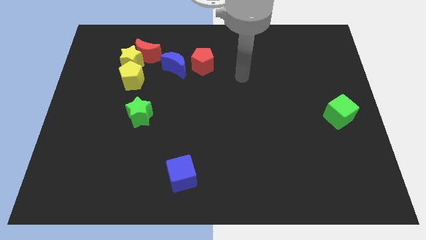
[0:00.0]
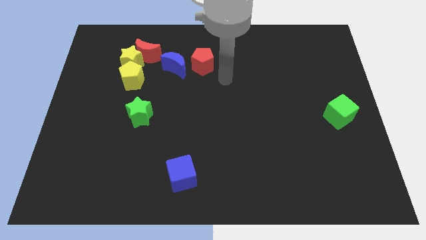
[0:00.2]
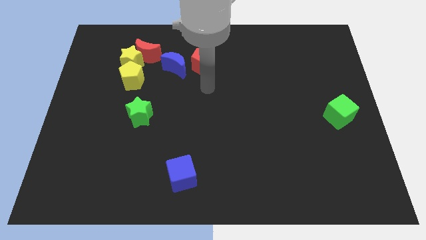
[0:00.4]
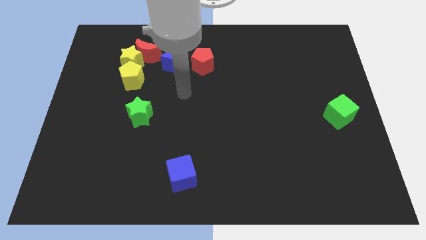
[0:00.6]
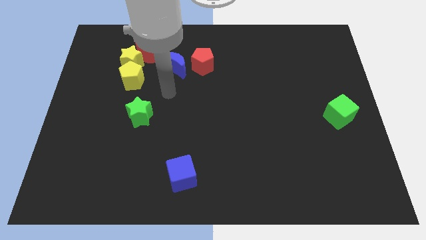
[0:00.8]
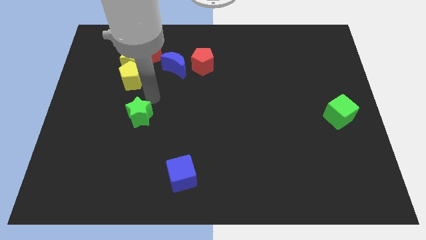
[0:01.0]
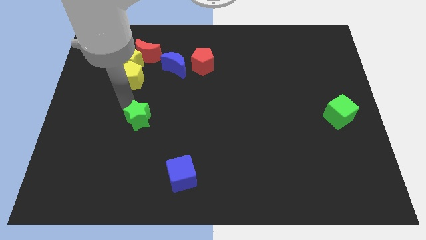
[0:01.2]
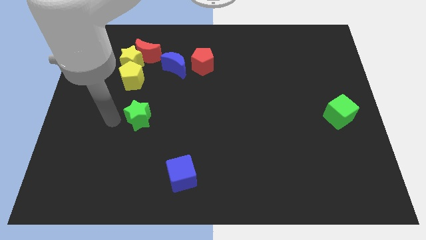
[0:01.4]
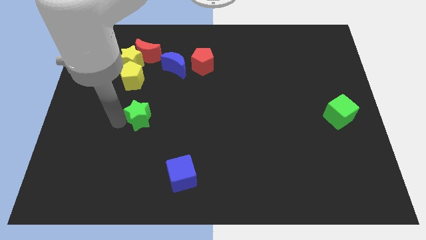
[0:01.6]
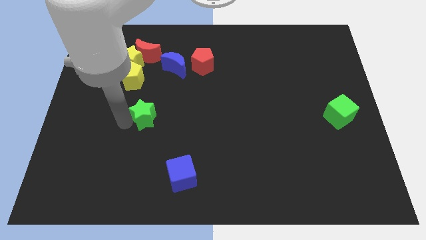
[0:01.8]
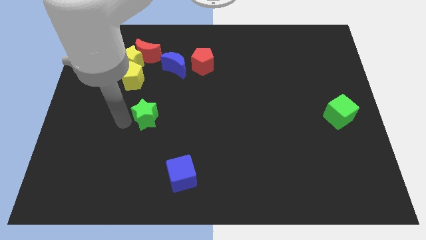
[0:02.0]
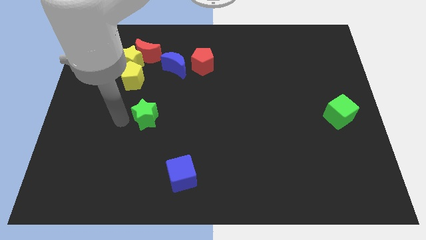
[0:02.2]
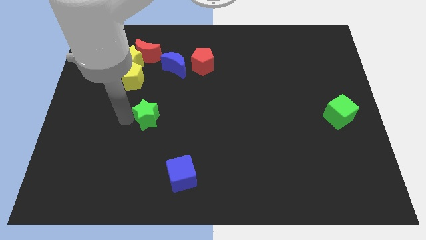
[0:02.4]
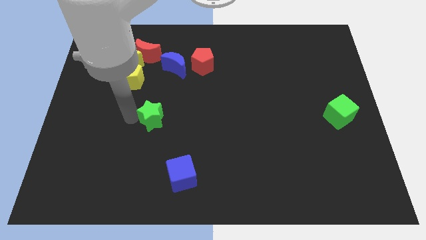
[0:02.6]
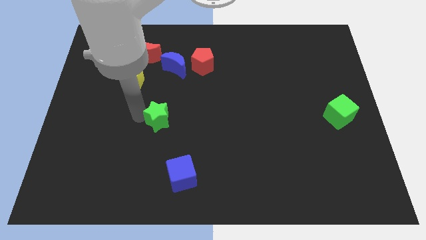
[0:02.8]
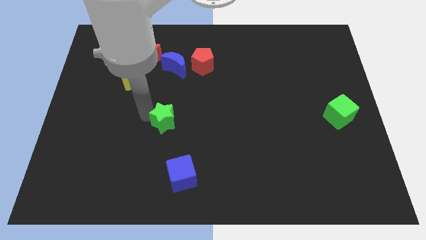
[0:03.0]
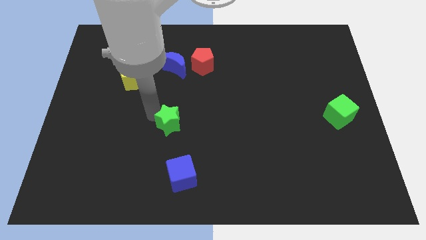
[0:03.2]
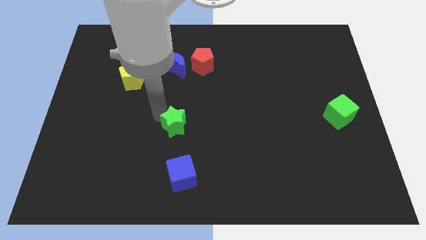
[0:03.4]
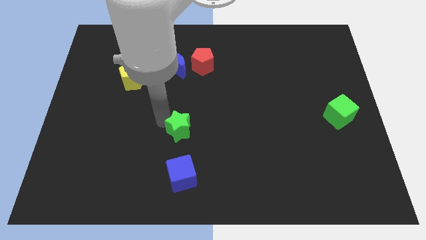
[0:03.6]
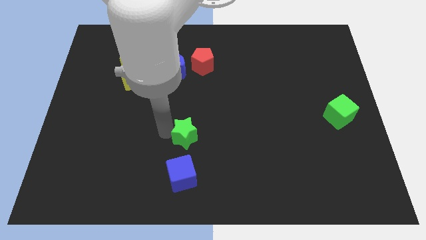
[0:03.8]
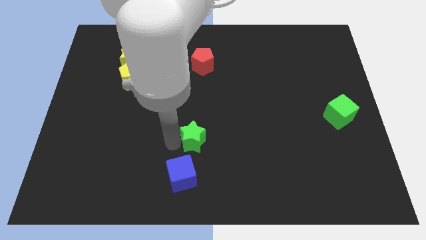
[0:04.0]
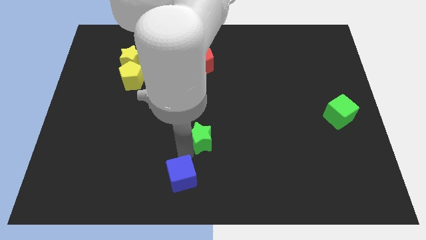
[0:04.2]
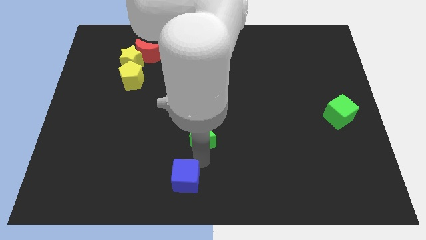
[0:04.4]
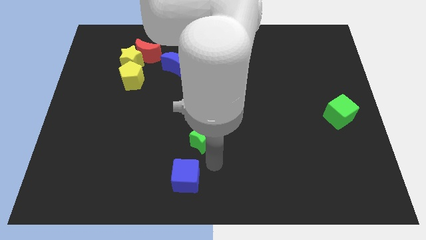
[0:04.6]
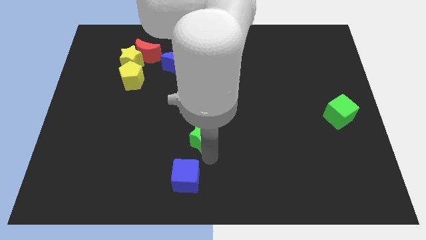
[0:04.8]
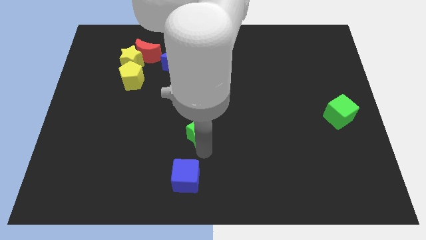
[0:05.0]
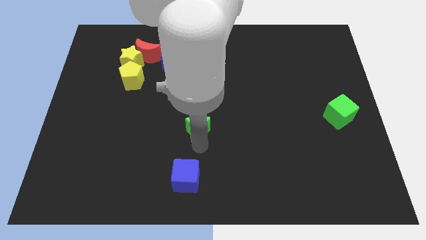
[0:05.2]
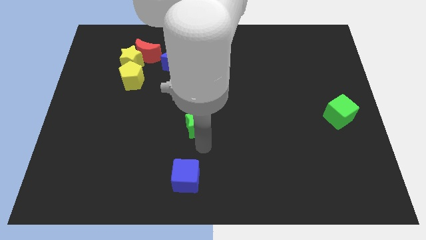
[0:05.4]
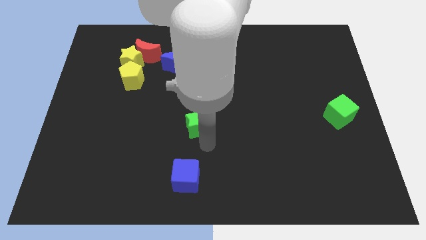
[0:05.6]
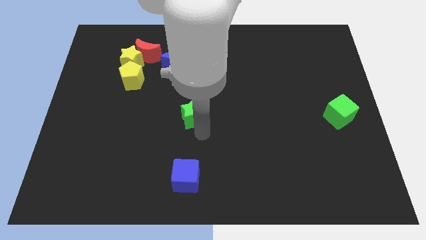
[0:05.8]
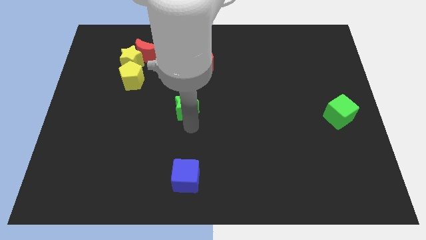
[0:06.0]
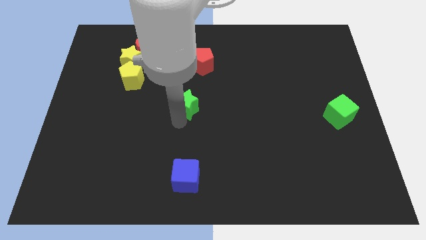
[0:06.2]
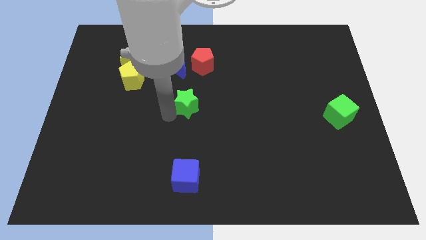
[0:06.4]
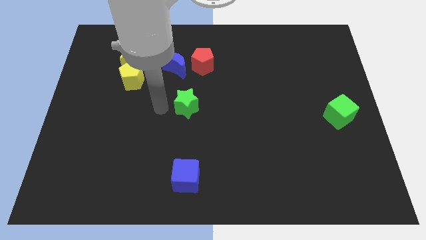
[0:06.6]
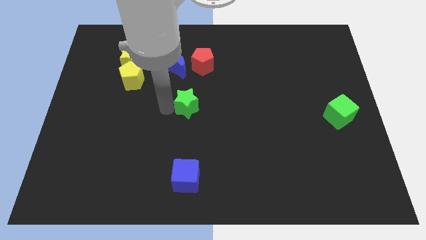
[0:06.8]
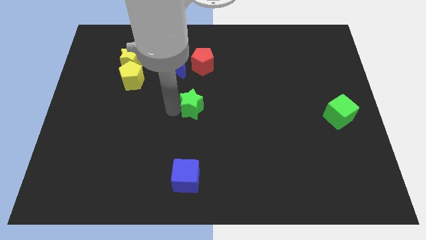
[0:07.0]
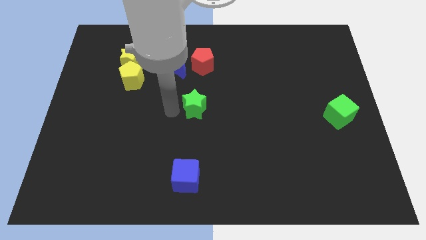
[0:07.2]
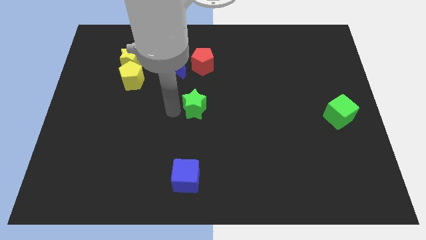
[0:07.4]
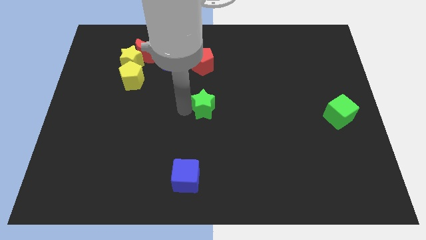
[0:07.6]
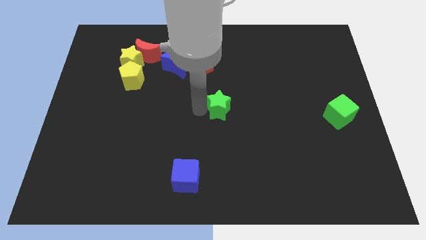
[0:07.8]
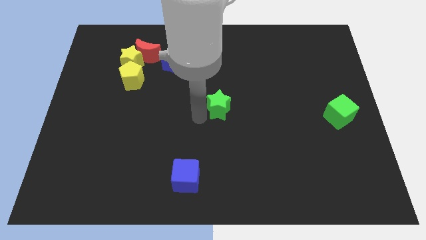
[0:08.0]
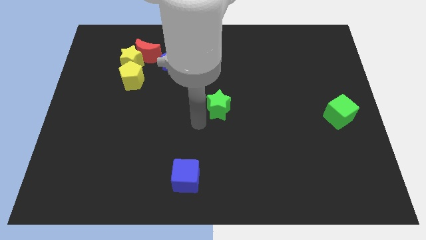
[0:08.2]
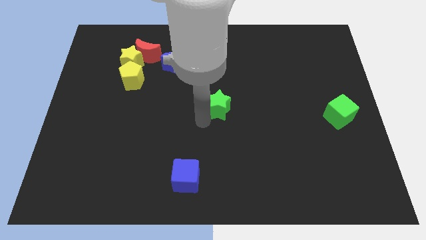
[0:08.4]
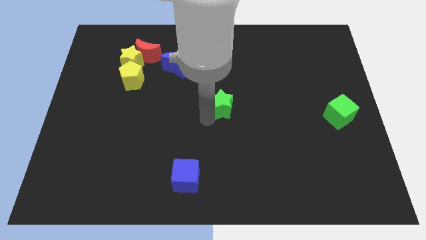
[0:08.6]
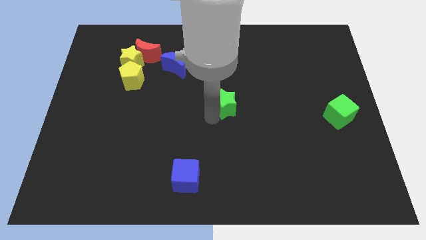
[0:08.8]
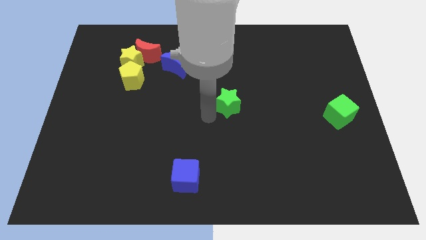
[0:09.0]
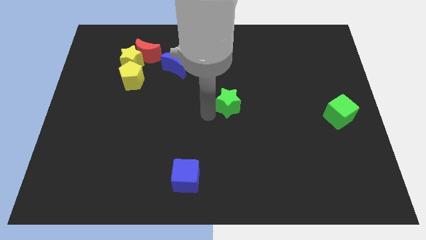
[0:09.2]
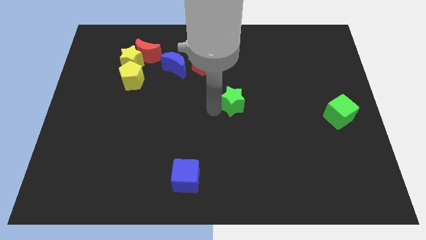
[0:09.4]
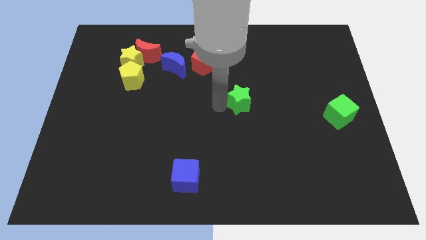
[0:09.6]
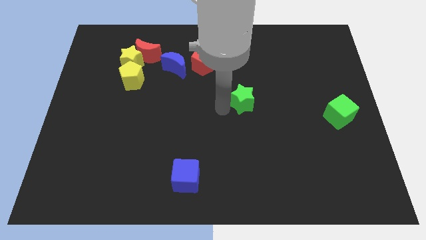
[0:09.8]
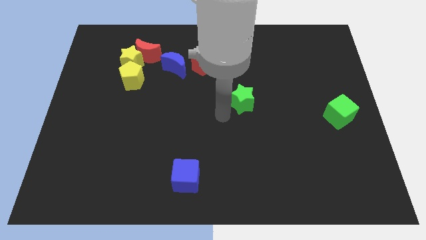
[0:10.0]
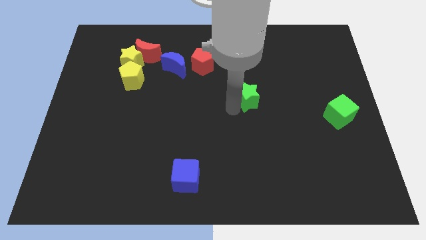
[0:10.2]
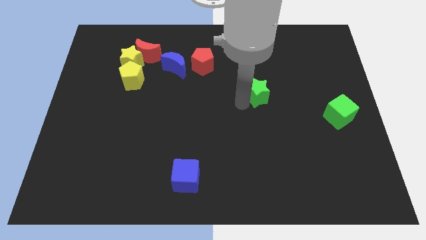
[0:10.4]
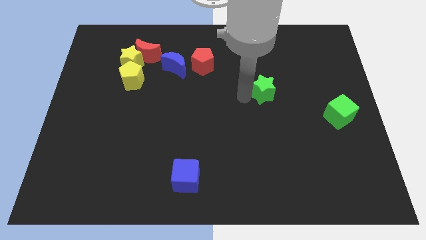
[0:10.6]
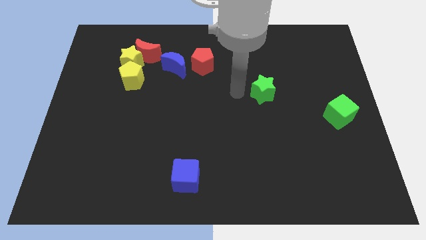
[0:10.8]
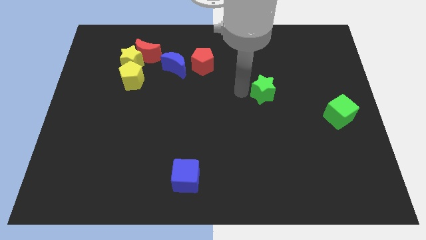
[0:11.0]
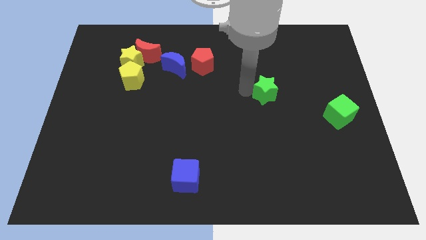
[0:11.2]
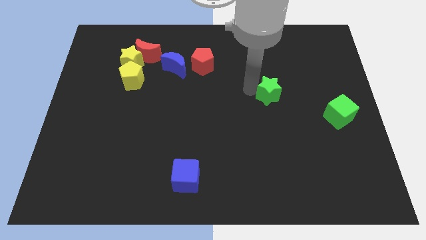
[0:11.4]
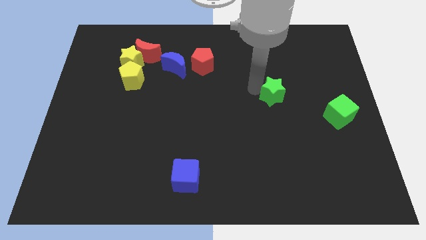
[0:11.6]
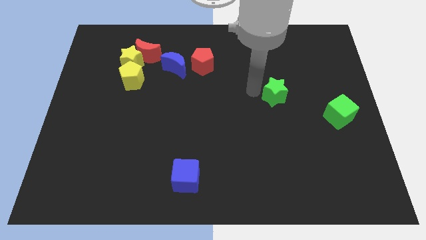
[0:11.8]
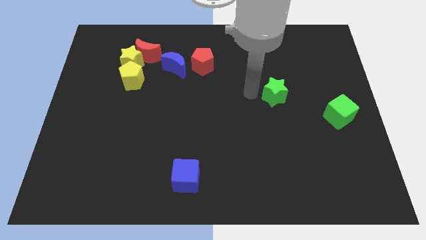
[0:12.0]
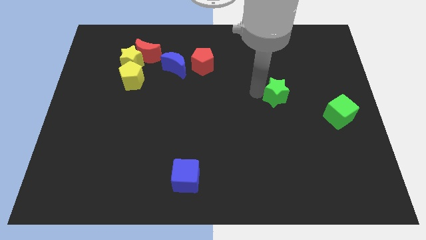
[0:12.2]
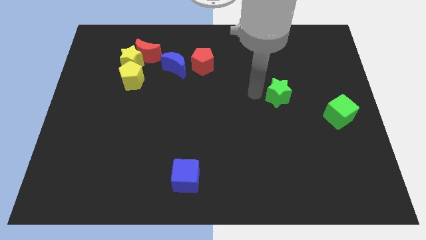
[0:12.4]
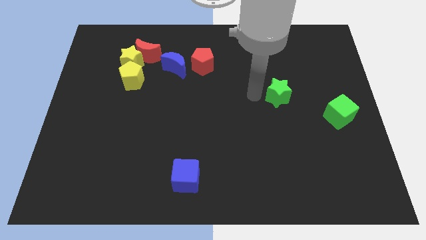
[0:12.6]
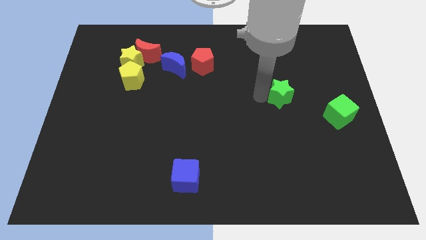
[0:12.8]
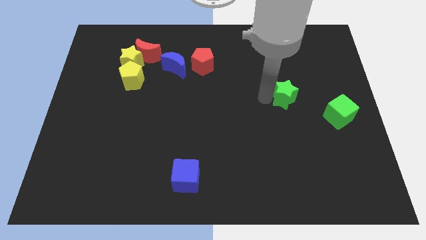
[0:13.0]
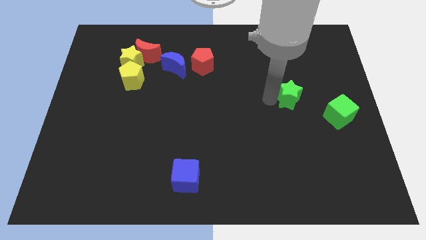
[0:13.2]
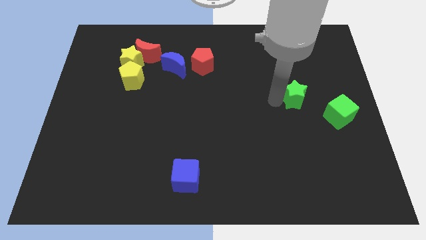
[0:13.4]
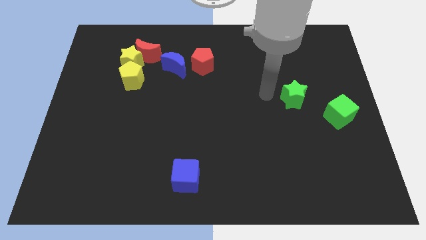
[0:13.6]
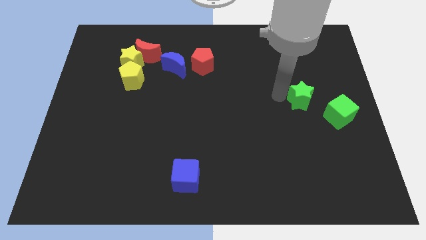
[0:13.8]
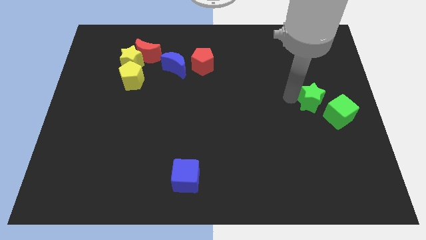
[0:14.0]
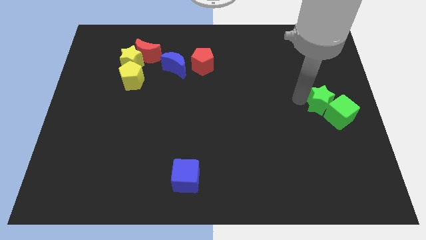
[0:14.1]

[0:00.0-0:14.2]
move the green star to the right side of the board
